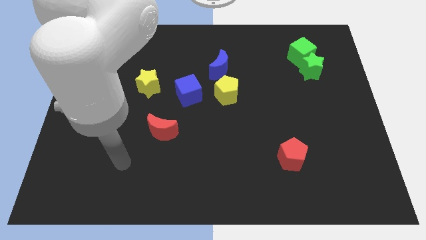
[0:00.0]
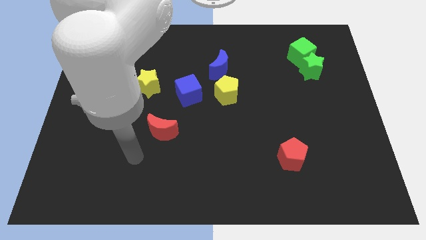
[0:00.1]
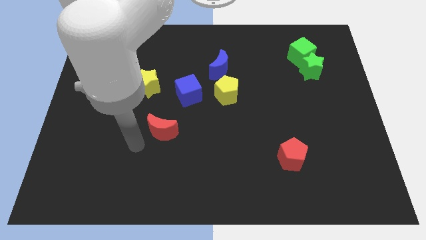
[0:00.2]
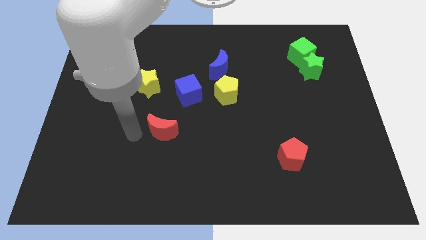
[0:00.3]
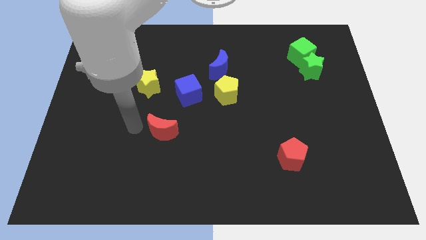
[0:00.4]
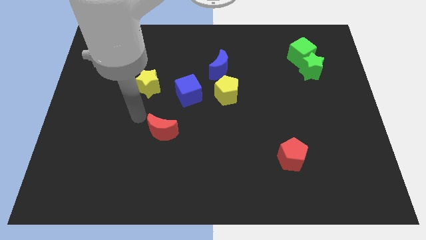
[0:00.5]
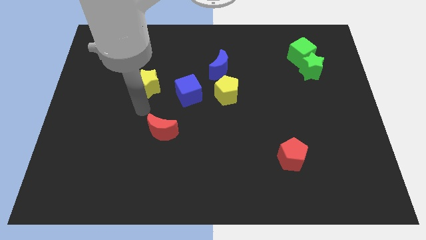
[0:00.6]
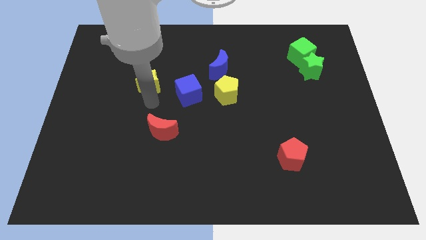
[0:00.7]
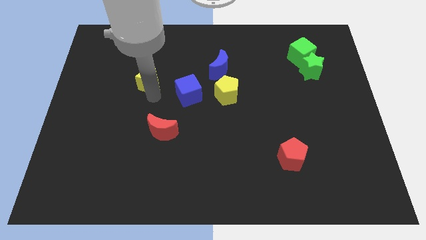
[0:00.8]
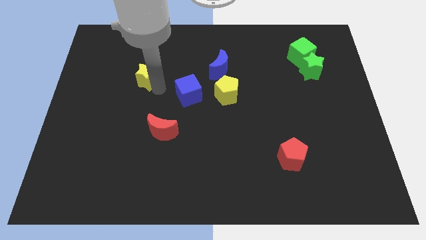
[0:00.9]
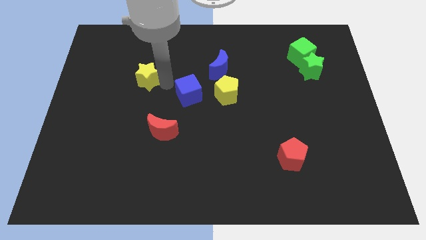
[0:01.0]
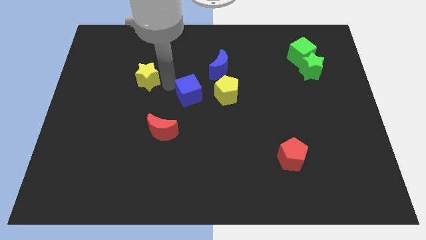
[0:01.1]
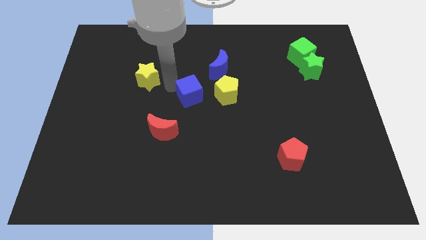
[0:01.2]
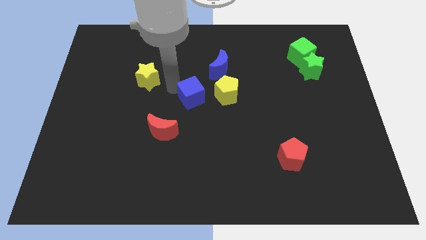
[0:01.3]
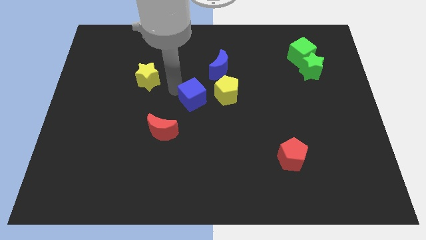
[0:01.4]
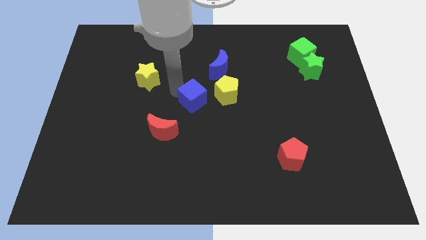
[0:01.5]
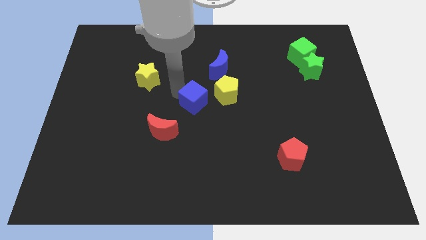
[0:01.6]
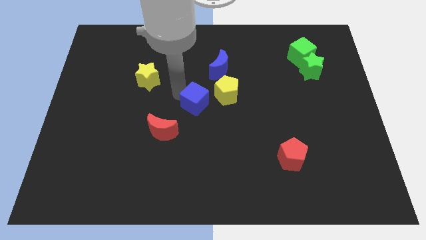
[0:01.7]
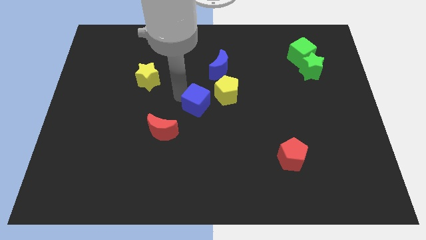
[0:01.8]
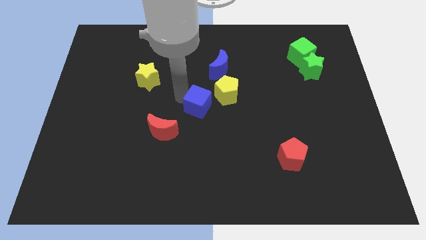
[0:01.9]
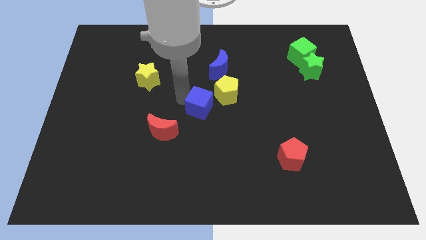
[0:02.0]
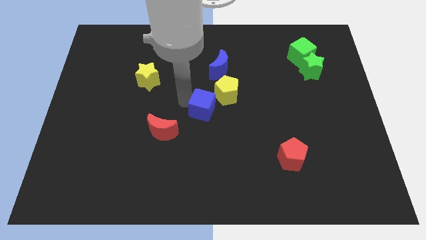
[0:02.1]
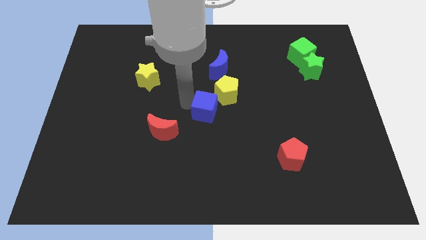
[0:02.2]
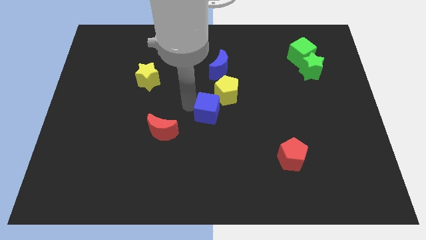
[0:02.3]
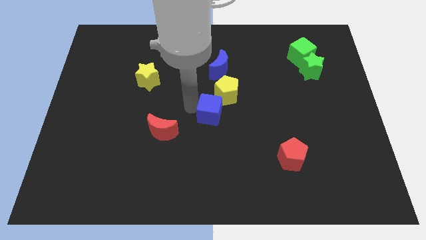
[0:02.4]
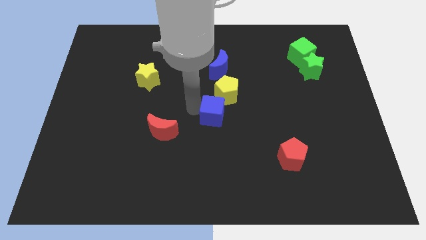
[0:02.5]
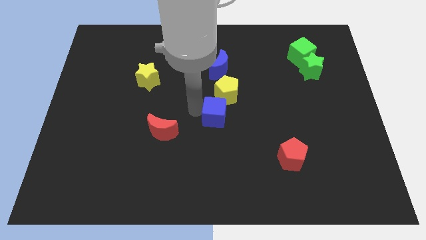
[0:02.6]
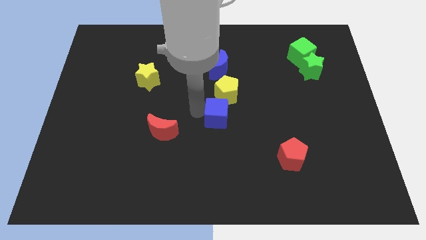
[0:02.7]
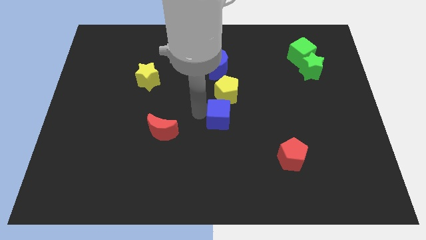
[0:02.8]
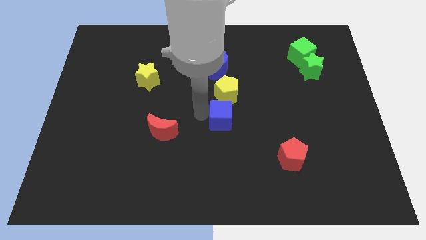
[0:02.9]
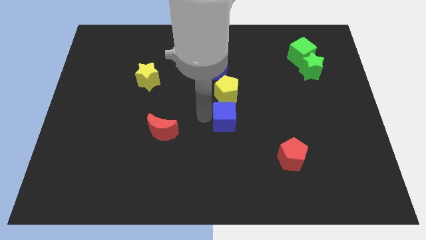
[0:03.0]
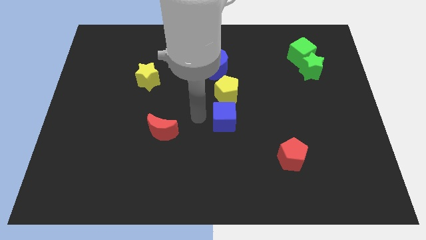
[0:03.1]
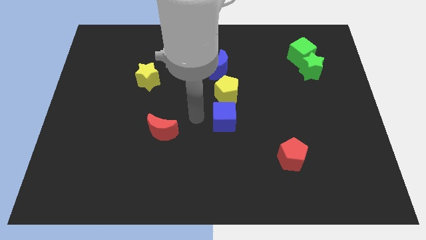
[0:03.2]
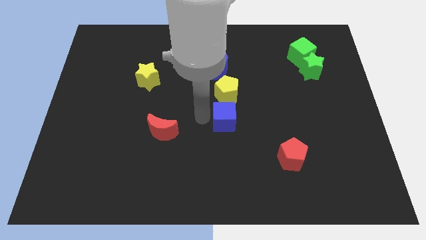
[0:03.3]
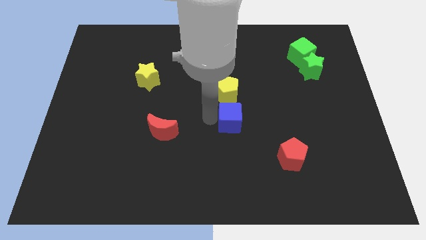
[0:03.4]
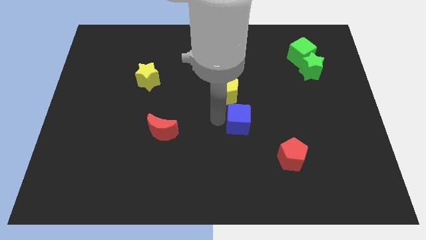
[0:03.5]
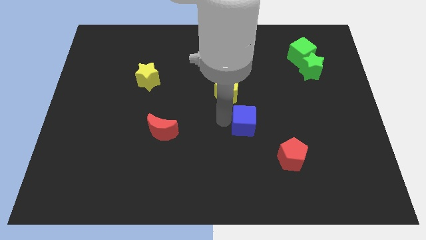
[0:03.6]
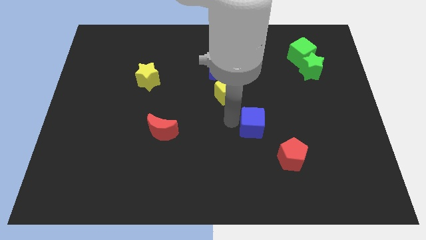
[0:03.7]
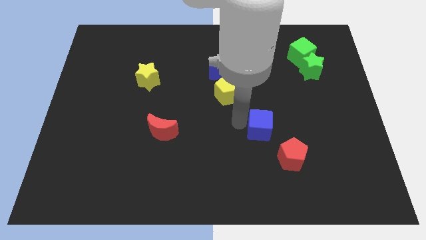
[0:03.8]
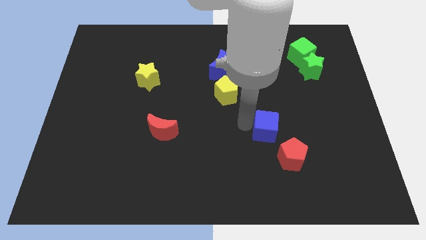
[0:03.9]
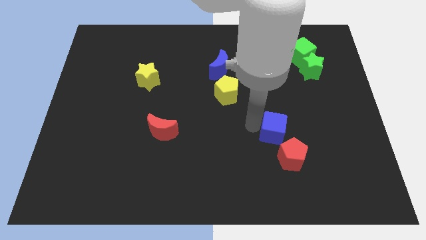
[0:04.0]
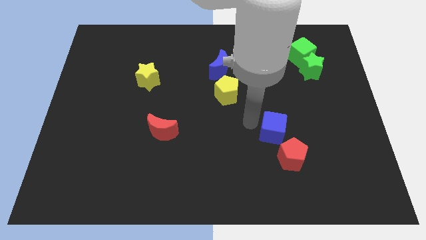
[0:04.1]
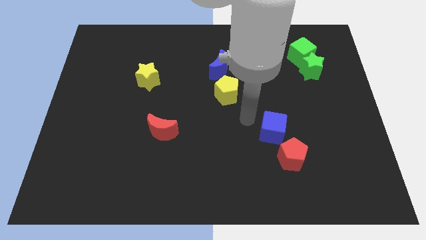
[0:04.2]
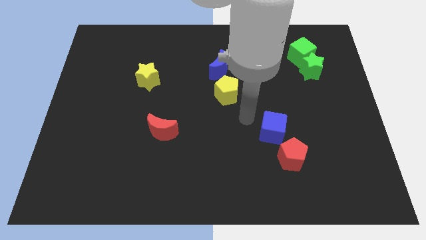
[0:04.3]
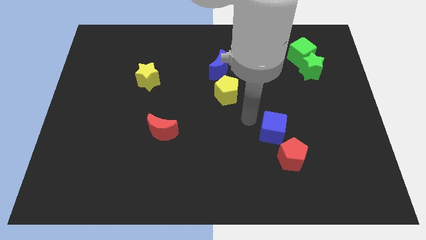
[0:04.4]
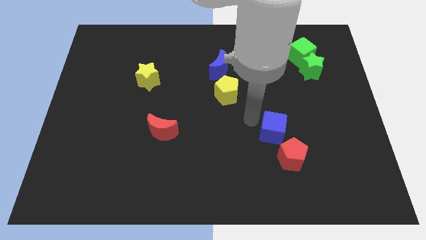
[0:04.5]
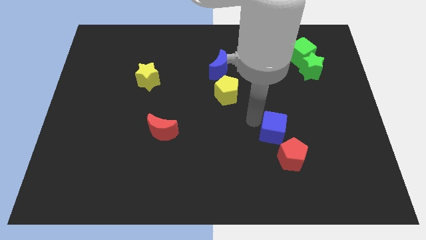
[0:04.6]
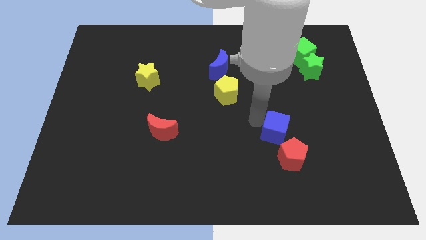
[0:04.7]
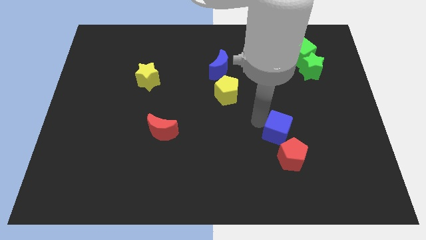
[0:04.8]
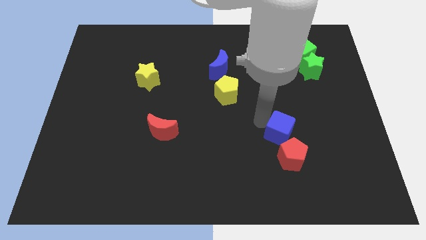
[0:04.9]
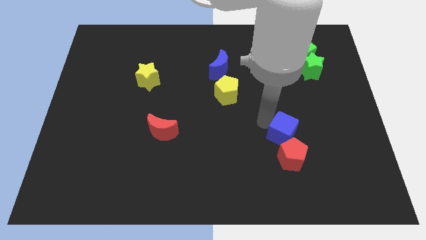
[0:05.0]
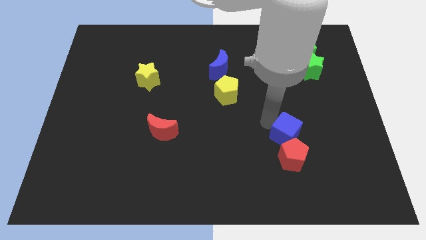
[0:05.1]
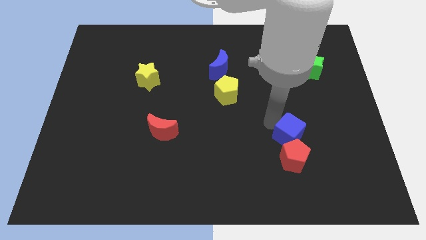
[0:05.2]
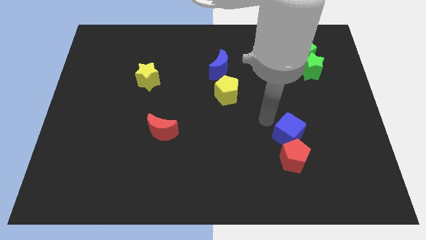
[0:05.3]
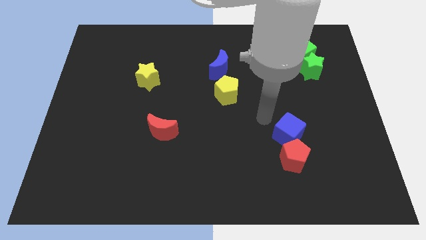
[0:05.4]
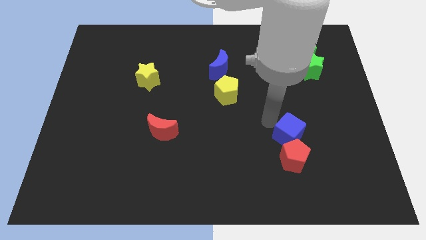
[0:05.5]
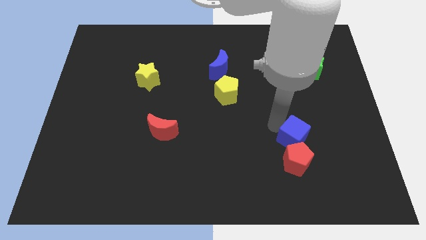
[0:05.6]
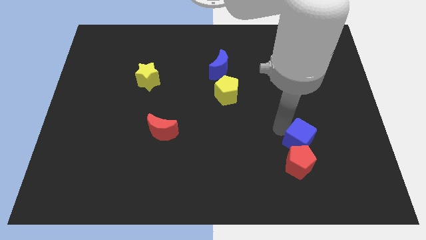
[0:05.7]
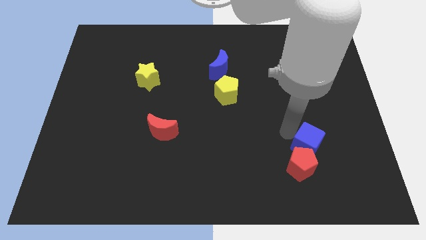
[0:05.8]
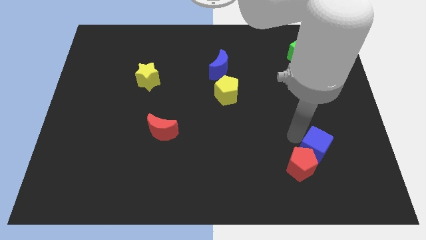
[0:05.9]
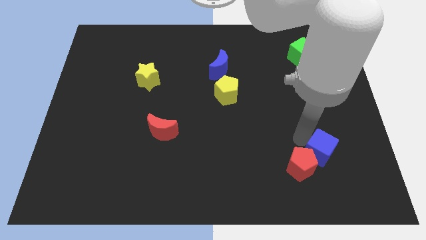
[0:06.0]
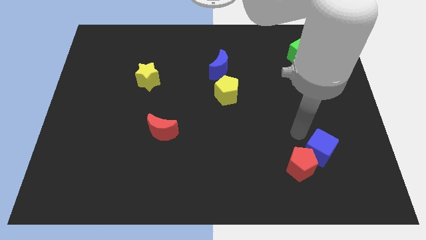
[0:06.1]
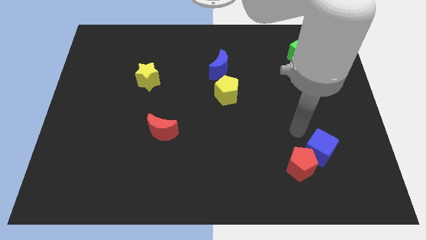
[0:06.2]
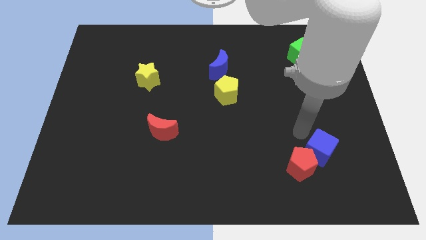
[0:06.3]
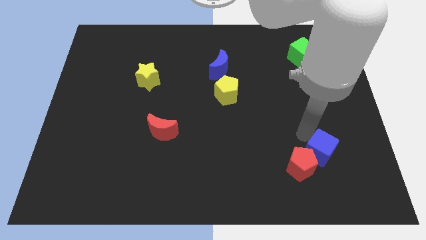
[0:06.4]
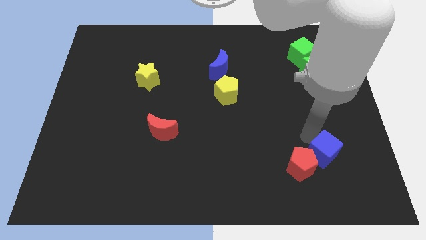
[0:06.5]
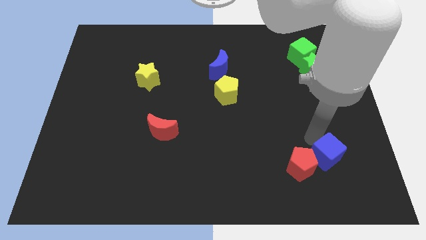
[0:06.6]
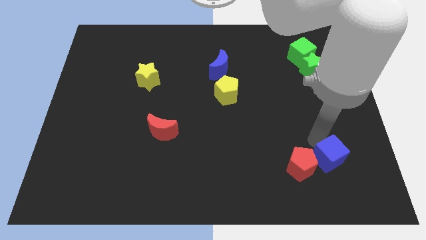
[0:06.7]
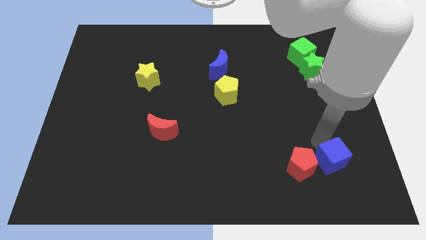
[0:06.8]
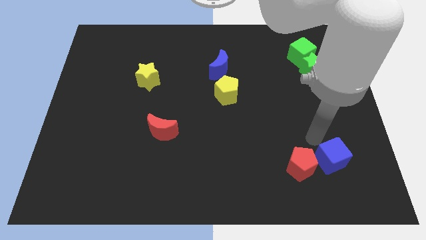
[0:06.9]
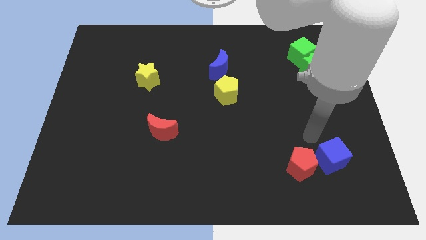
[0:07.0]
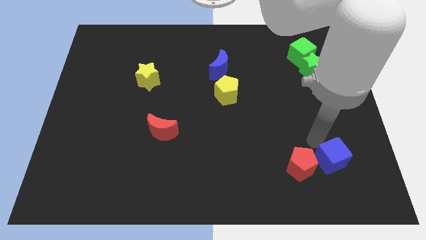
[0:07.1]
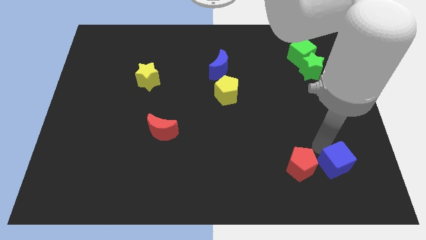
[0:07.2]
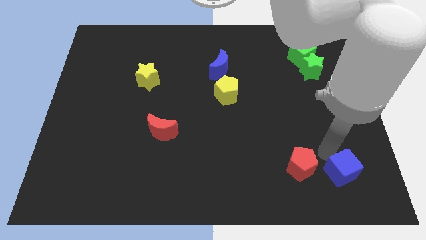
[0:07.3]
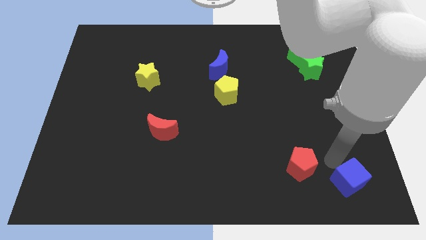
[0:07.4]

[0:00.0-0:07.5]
put the blue cube to the bottom right
